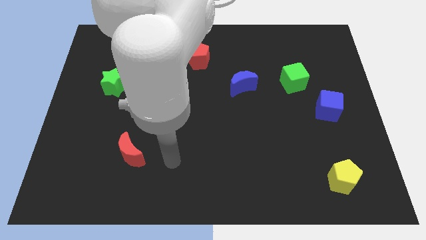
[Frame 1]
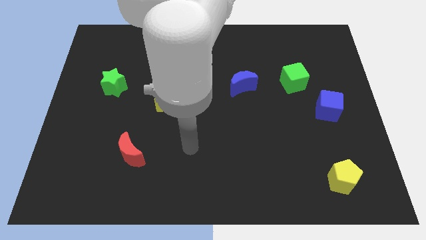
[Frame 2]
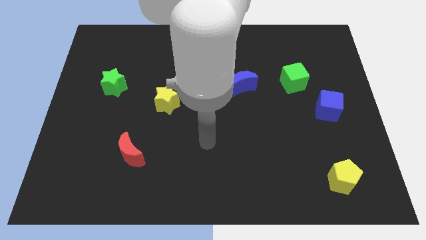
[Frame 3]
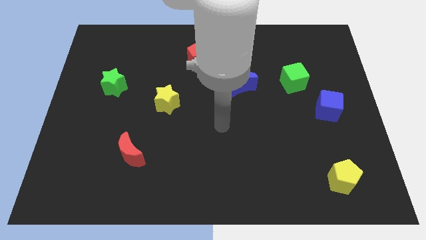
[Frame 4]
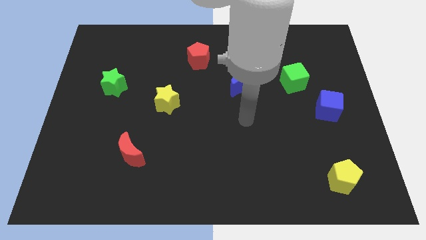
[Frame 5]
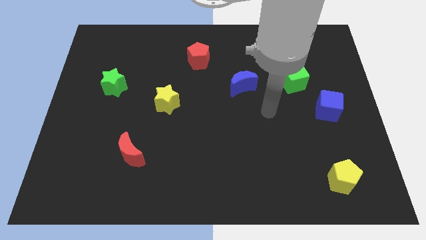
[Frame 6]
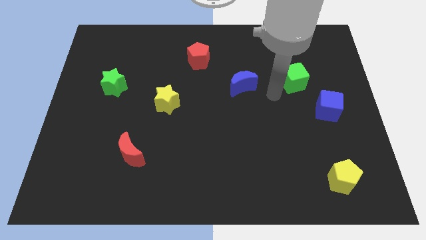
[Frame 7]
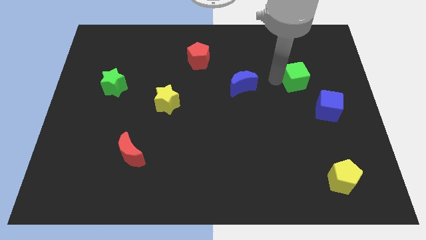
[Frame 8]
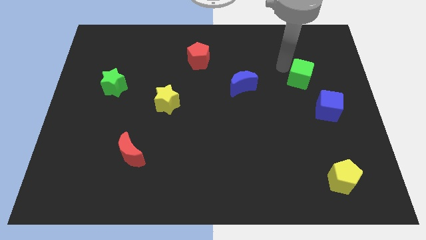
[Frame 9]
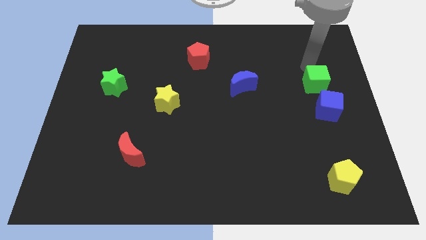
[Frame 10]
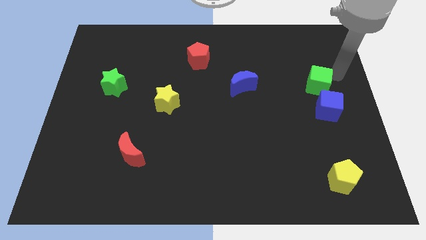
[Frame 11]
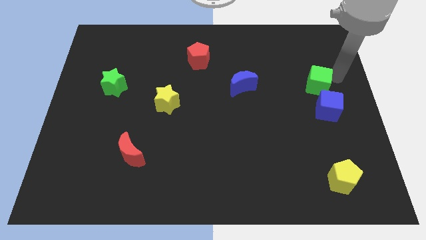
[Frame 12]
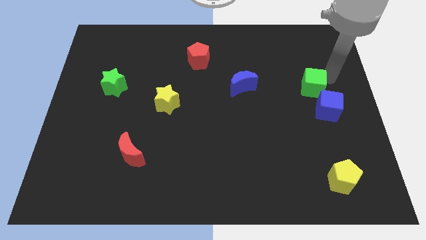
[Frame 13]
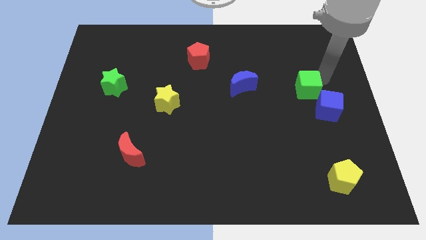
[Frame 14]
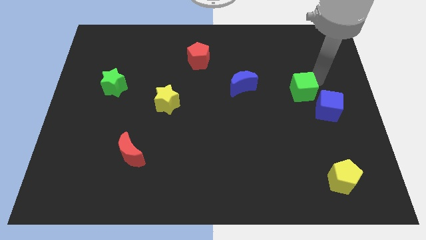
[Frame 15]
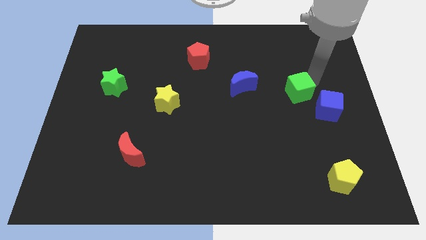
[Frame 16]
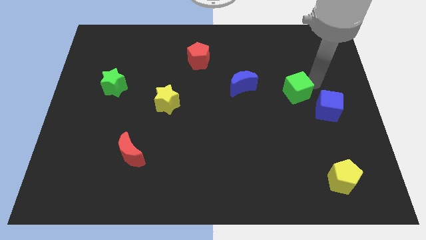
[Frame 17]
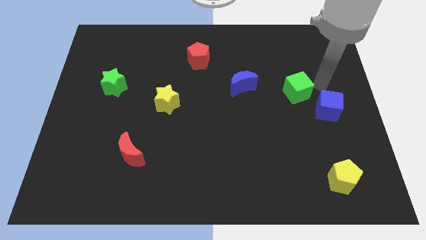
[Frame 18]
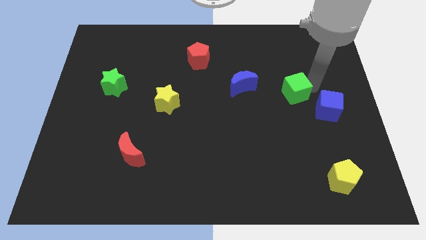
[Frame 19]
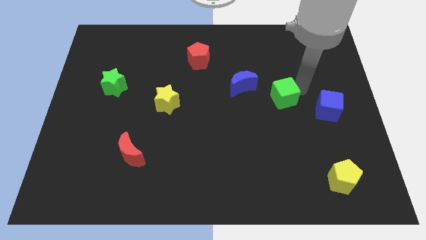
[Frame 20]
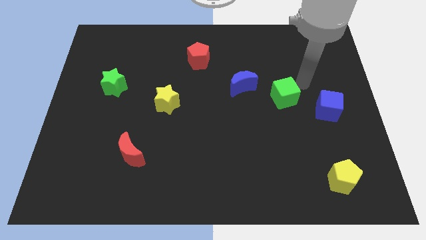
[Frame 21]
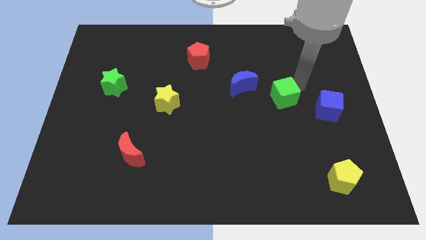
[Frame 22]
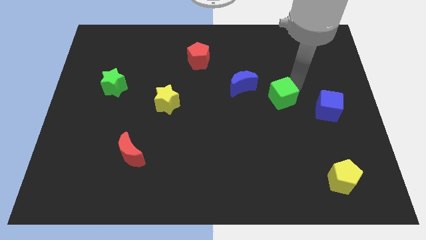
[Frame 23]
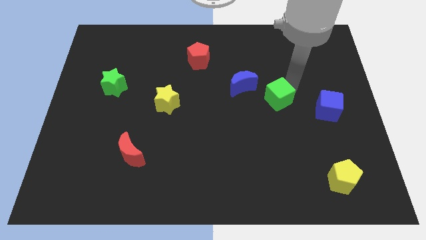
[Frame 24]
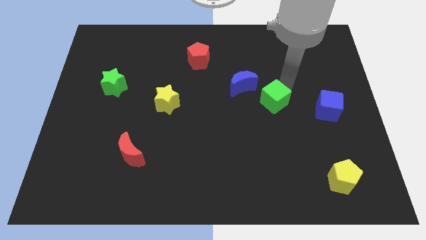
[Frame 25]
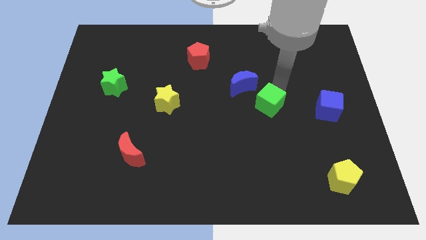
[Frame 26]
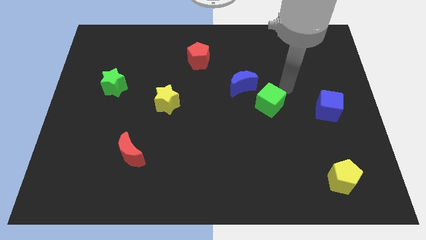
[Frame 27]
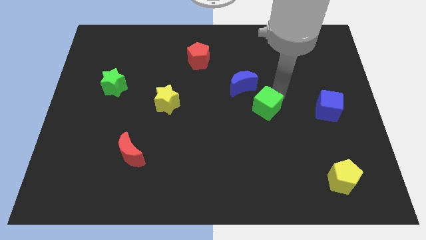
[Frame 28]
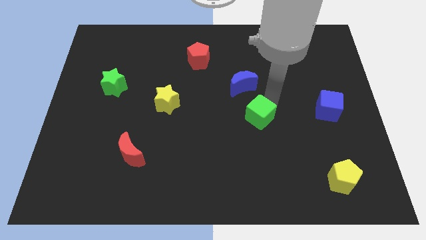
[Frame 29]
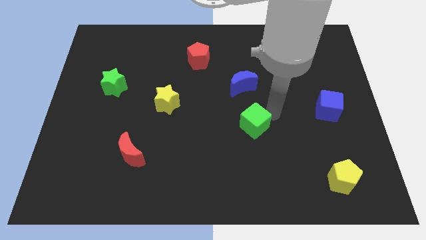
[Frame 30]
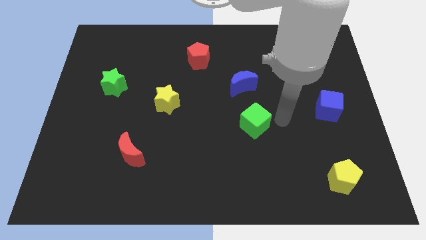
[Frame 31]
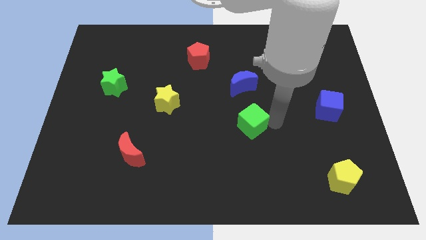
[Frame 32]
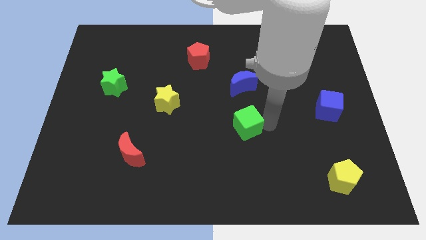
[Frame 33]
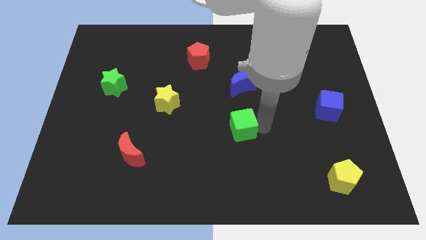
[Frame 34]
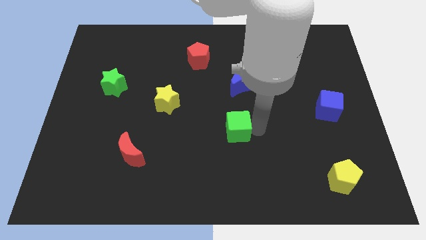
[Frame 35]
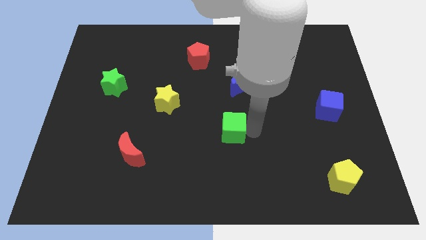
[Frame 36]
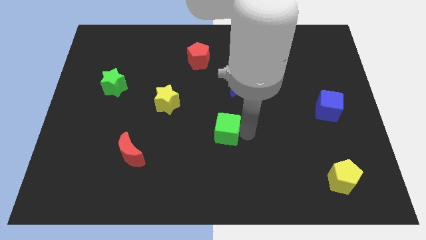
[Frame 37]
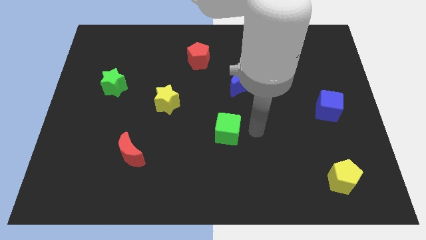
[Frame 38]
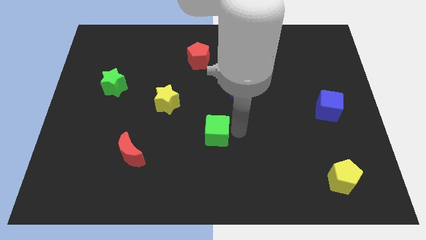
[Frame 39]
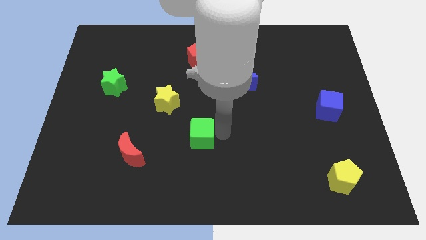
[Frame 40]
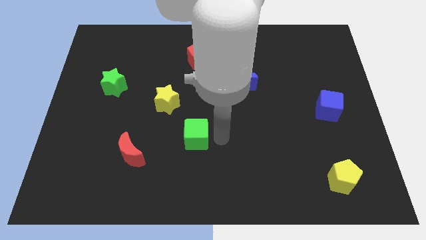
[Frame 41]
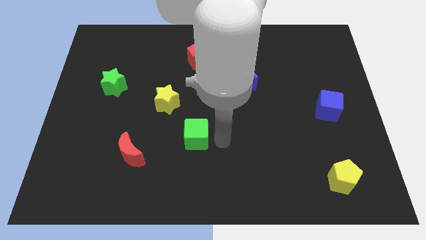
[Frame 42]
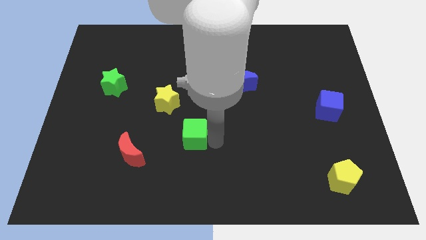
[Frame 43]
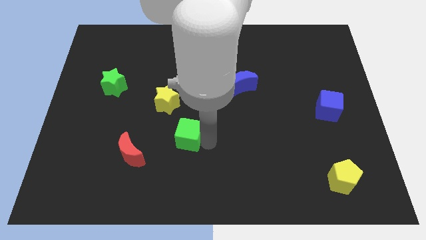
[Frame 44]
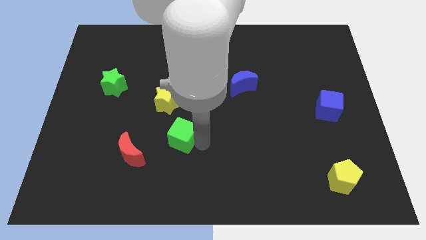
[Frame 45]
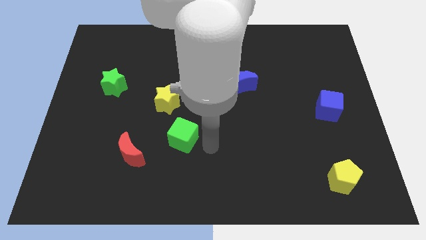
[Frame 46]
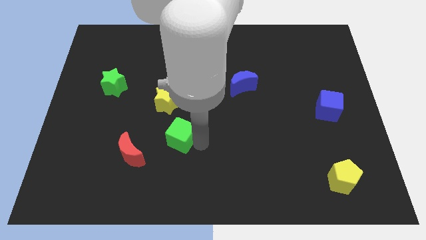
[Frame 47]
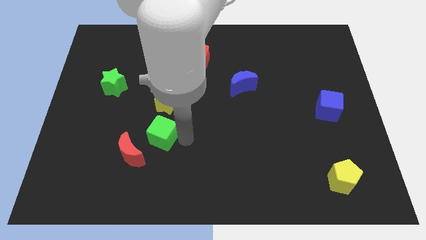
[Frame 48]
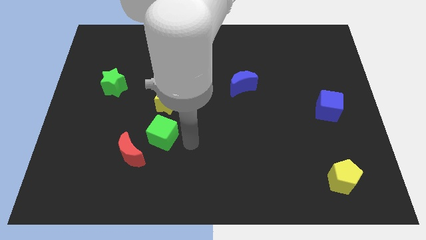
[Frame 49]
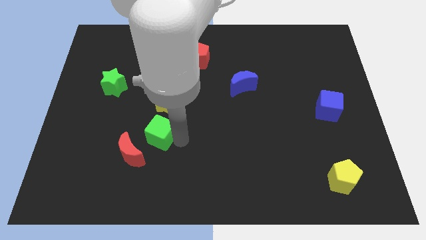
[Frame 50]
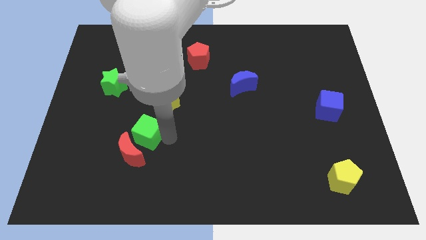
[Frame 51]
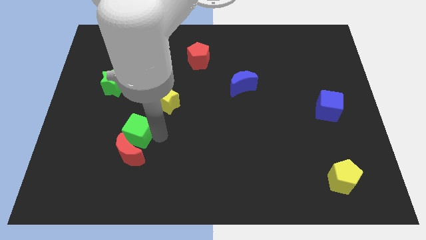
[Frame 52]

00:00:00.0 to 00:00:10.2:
move the green cube to the top left of the red moon

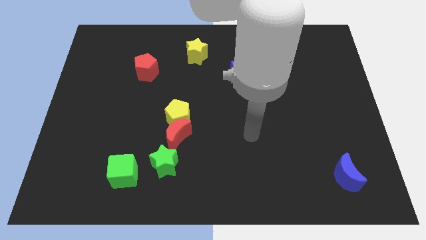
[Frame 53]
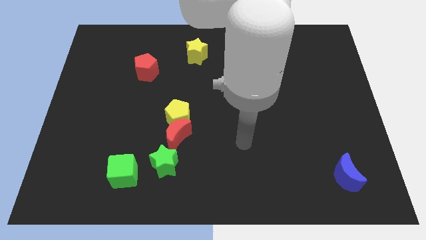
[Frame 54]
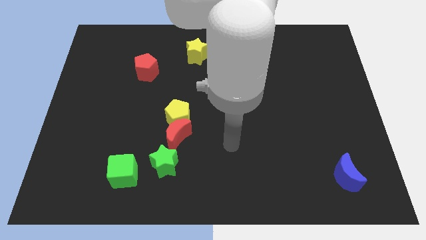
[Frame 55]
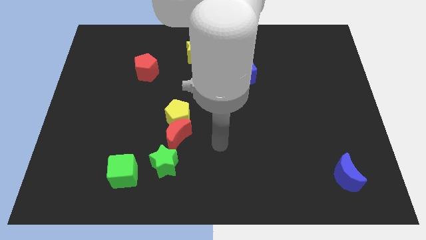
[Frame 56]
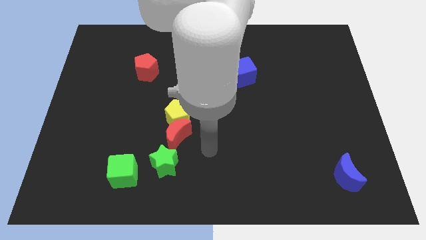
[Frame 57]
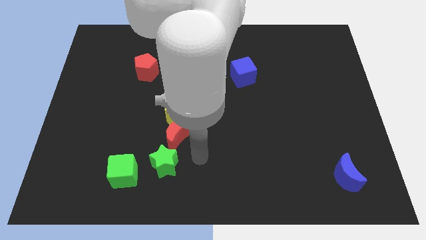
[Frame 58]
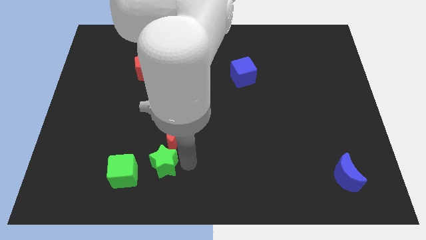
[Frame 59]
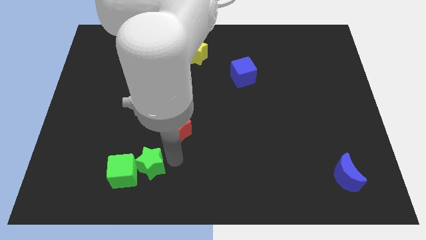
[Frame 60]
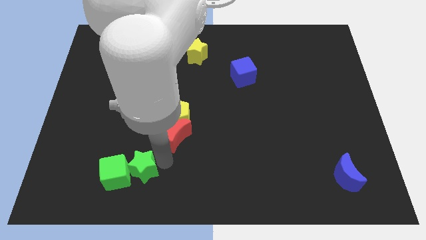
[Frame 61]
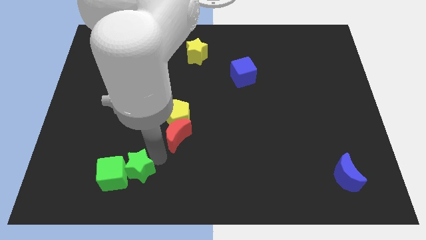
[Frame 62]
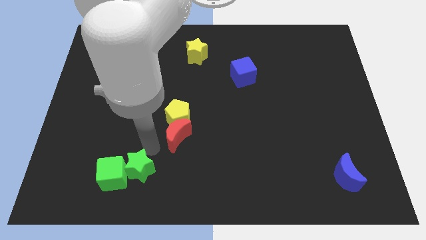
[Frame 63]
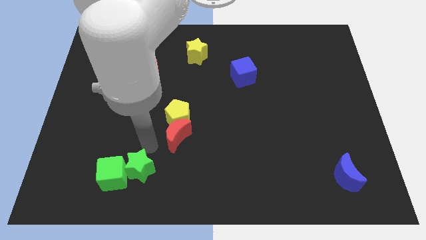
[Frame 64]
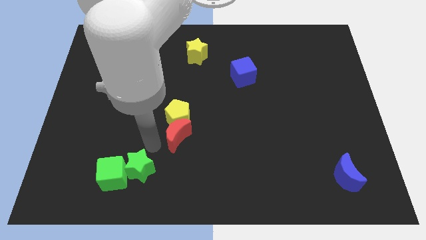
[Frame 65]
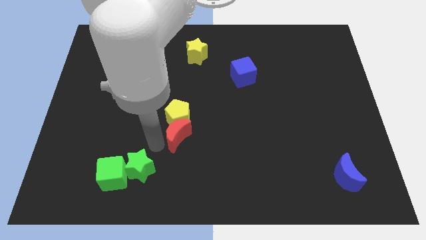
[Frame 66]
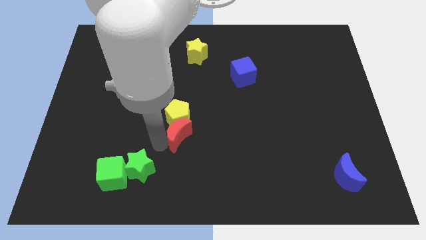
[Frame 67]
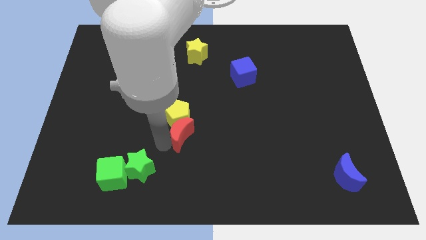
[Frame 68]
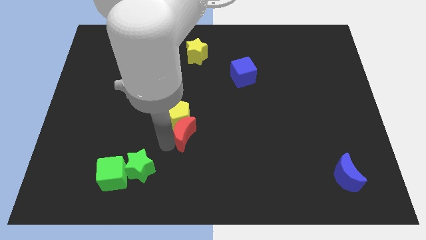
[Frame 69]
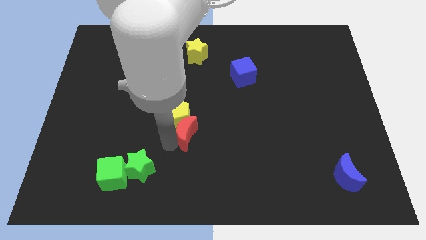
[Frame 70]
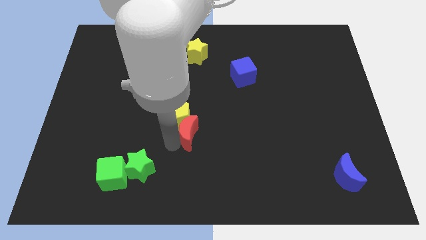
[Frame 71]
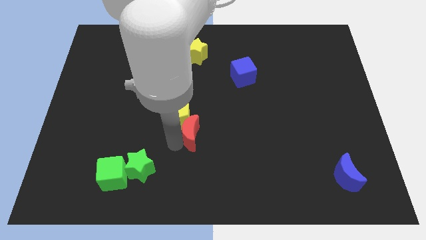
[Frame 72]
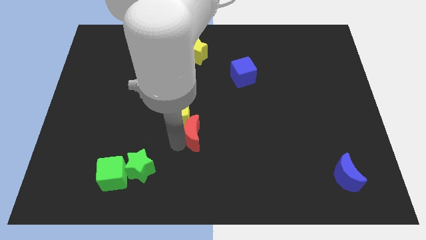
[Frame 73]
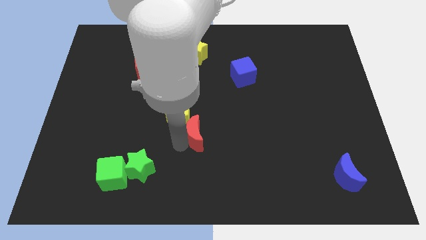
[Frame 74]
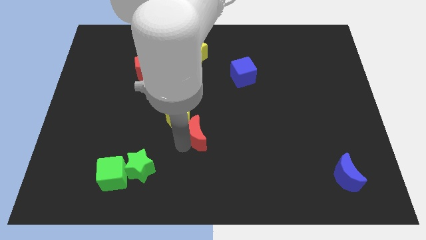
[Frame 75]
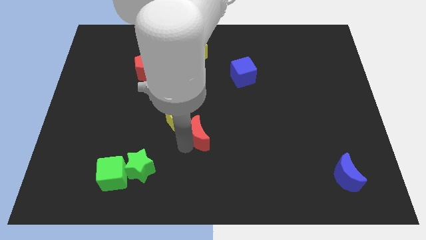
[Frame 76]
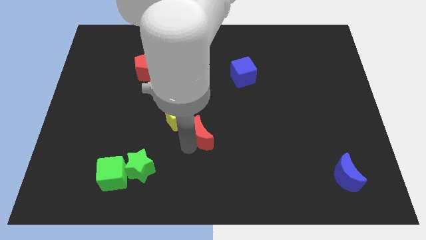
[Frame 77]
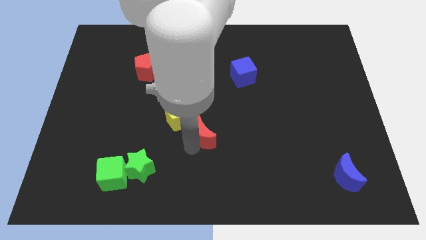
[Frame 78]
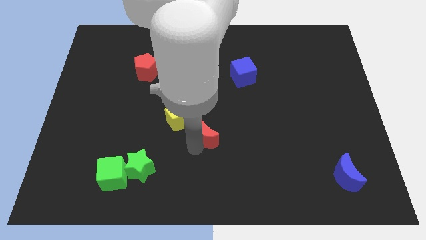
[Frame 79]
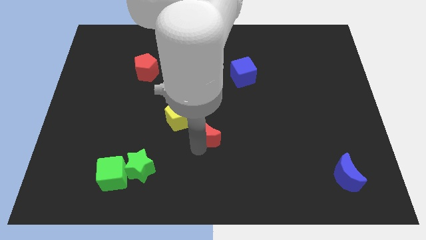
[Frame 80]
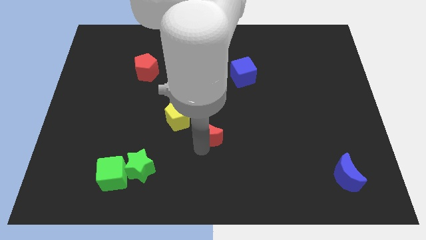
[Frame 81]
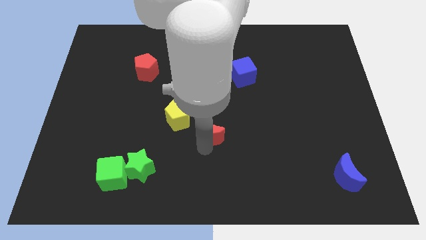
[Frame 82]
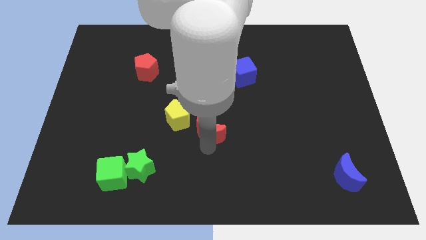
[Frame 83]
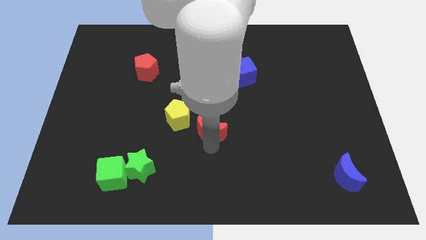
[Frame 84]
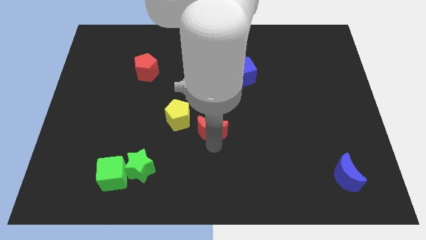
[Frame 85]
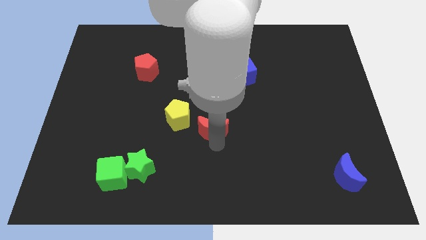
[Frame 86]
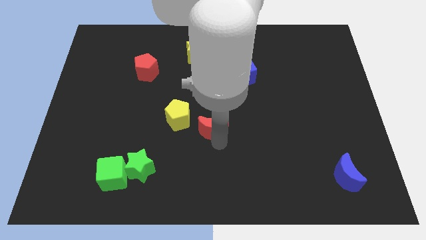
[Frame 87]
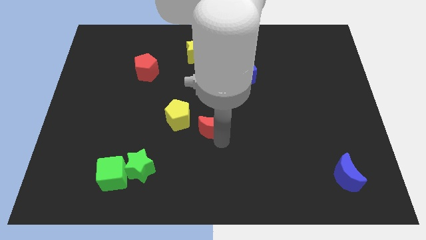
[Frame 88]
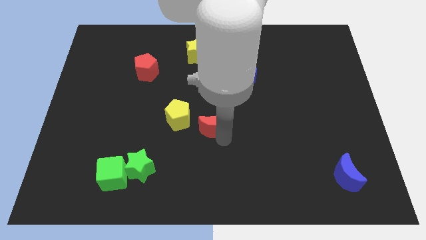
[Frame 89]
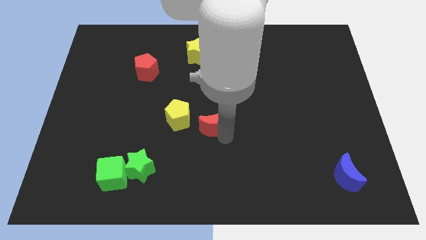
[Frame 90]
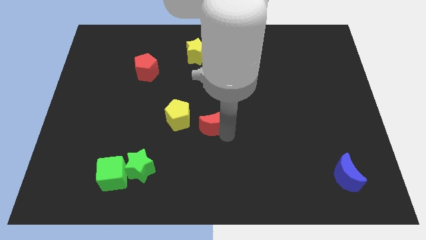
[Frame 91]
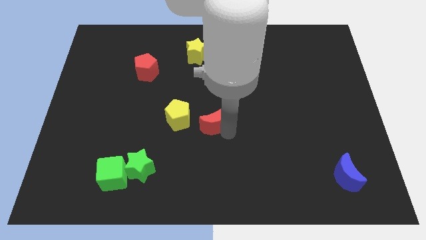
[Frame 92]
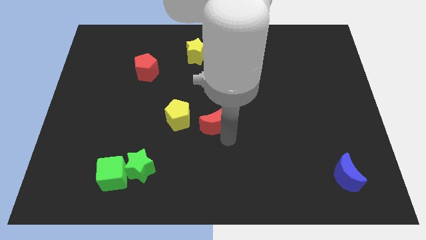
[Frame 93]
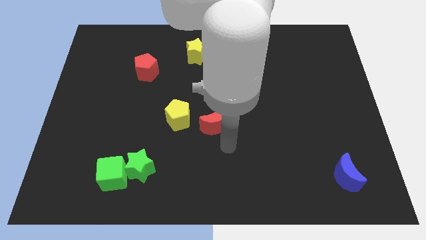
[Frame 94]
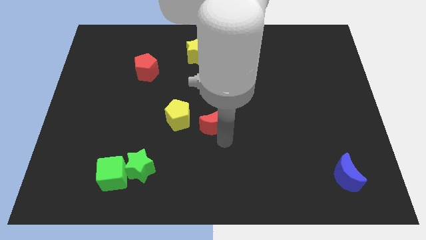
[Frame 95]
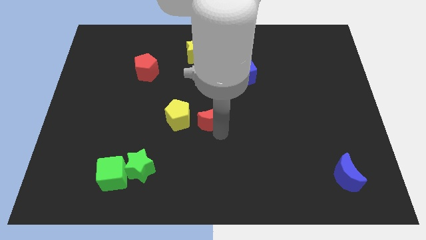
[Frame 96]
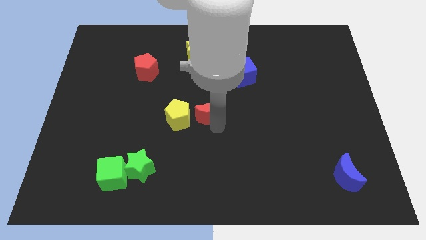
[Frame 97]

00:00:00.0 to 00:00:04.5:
put the red moon to the top right of the yellow pentagon
